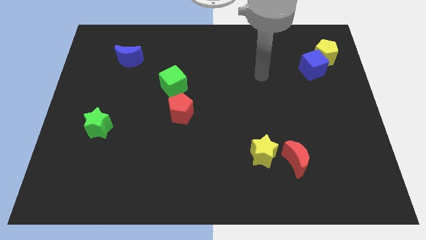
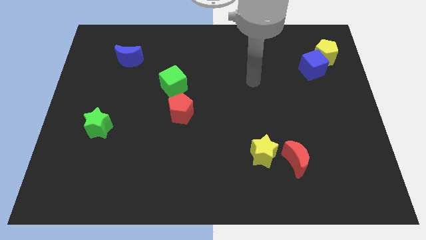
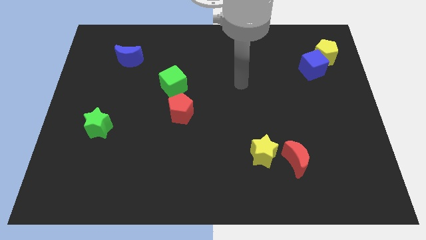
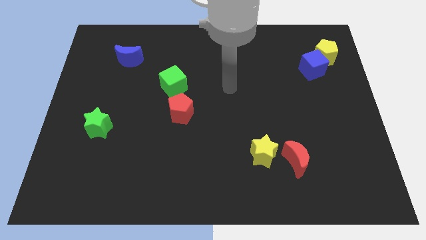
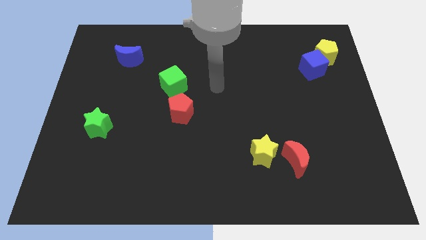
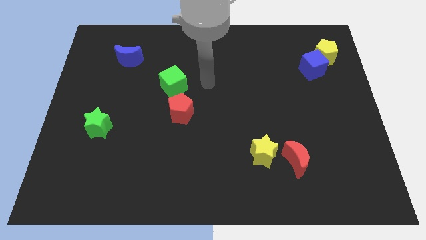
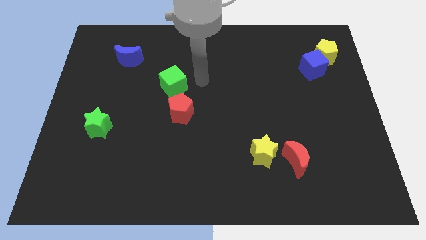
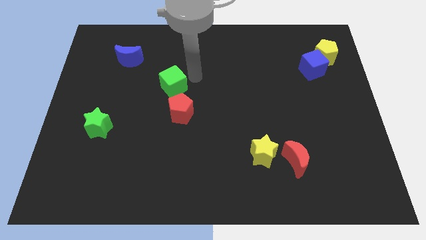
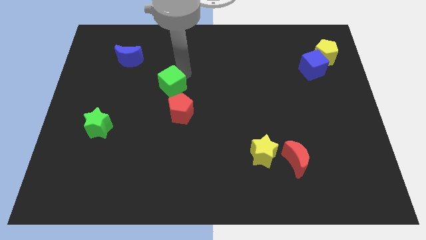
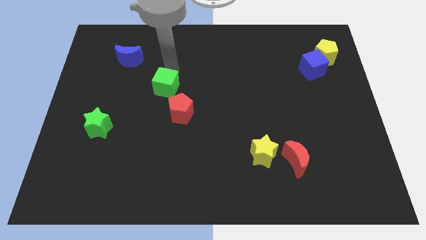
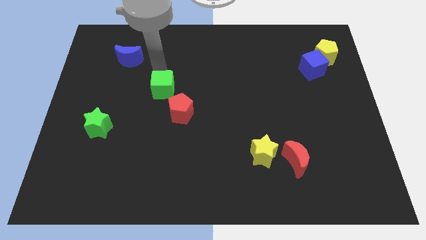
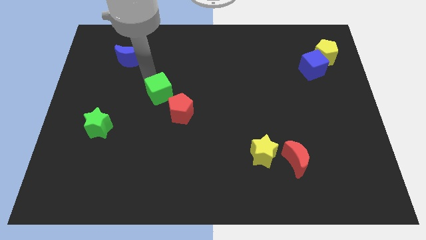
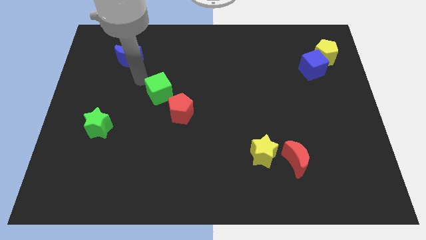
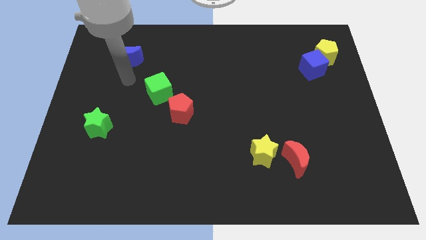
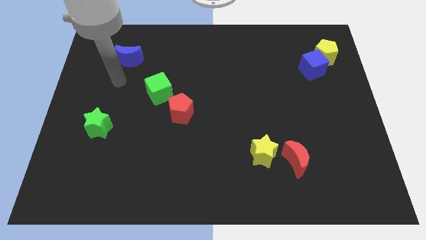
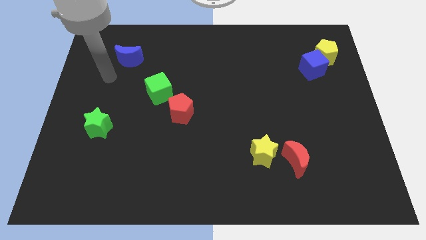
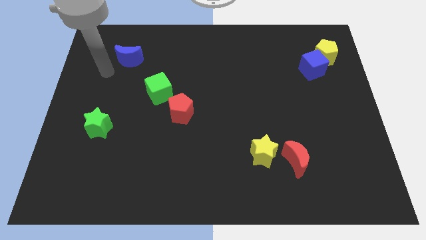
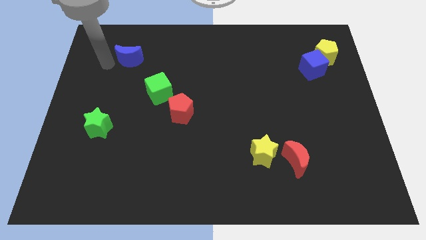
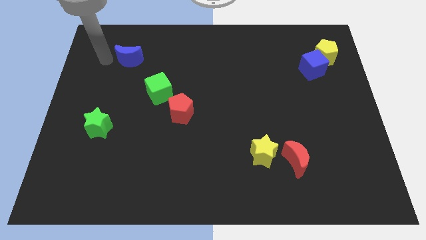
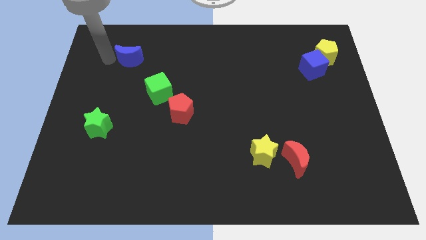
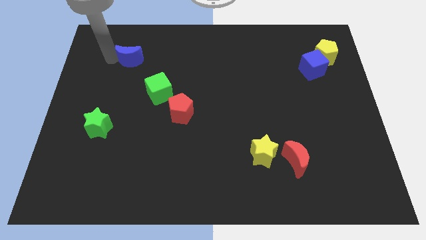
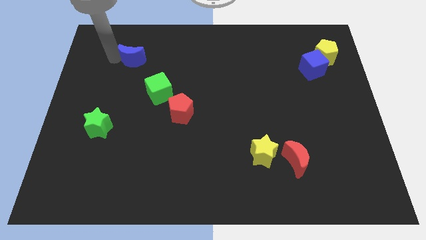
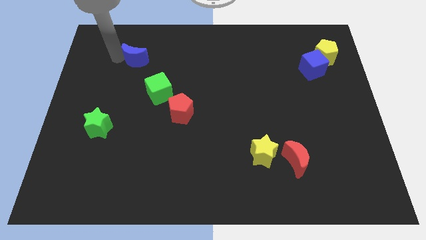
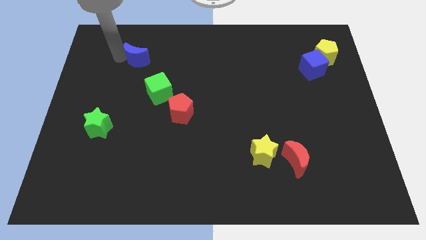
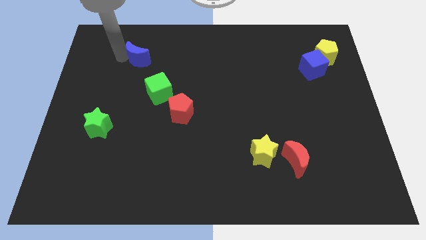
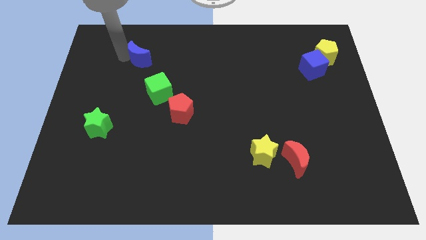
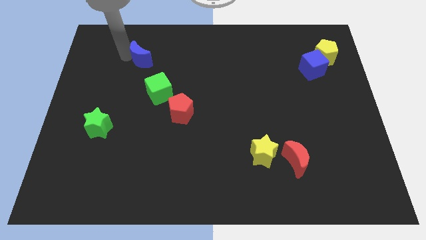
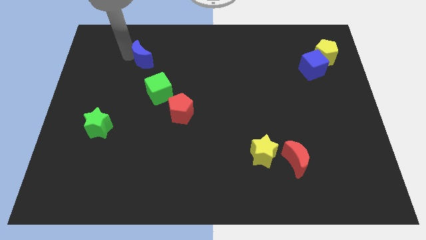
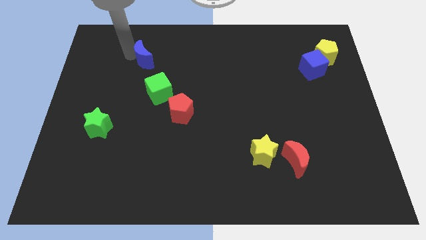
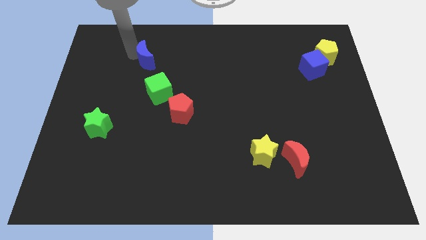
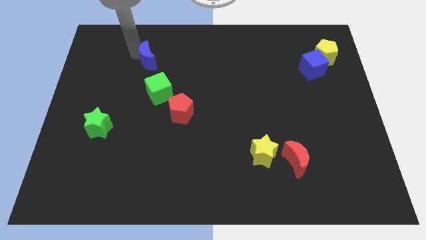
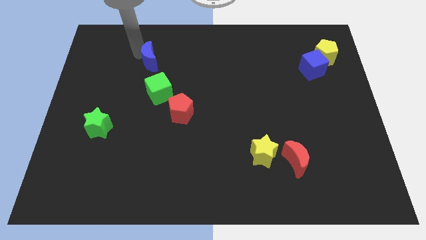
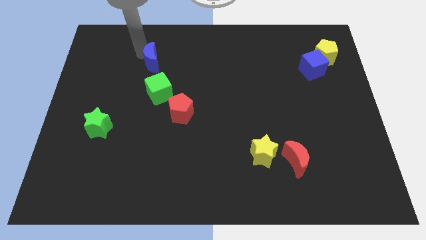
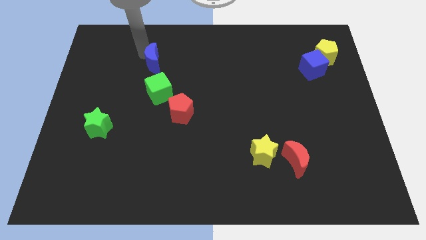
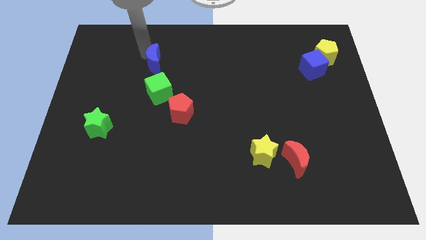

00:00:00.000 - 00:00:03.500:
slightly slide the blue moon right

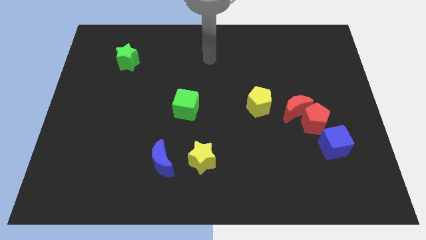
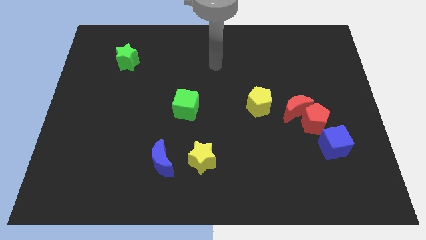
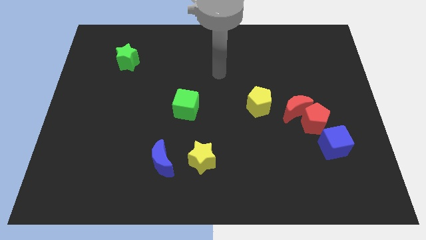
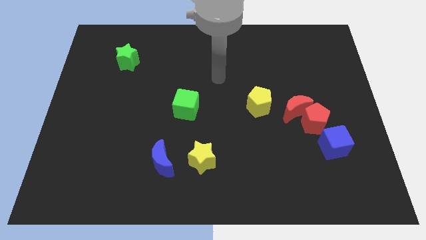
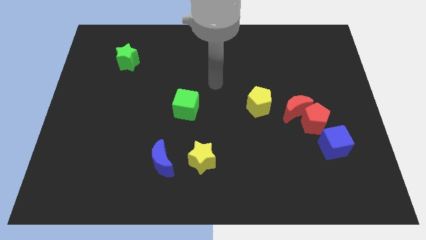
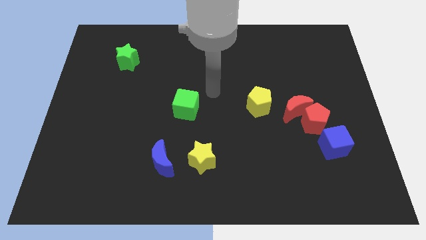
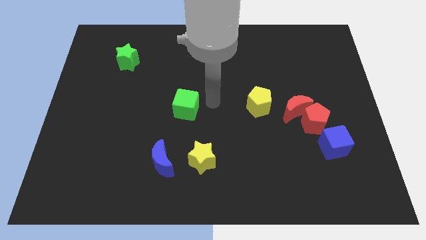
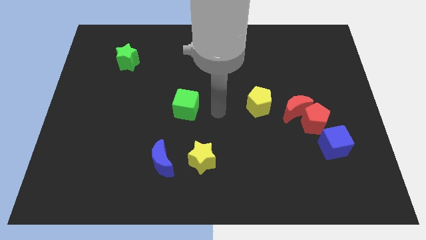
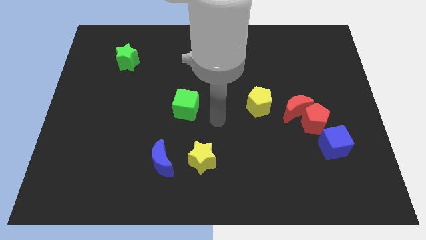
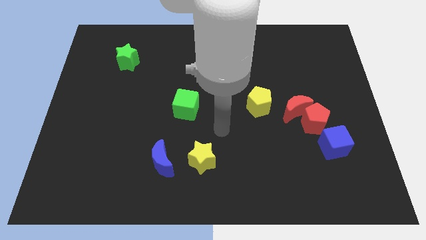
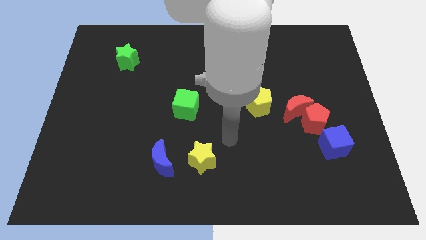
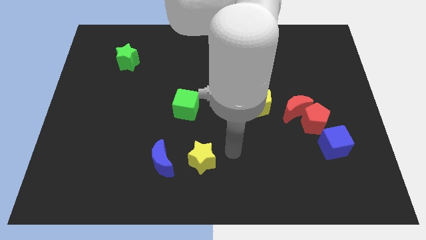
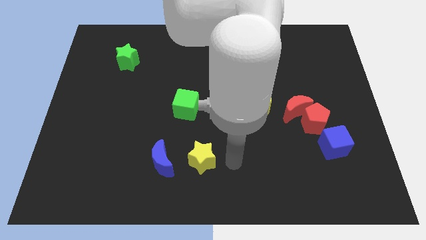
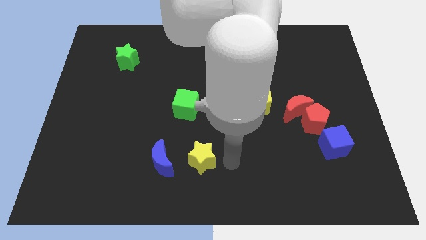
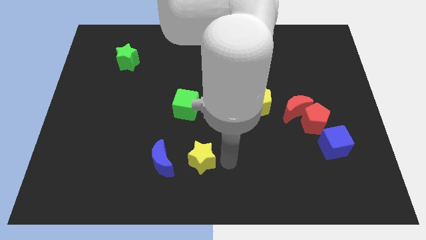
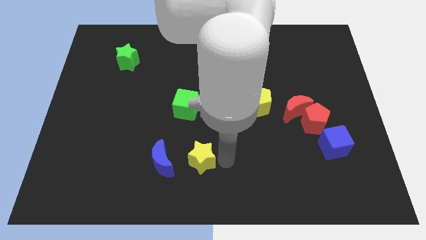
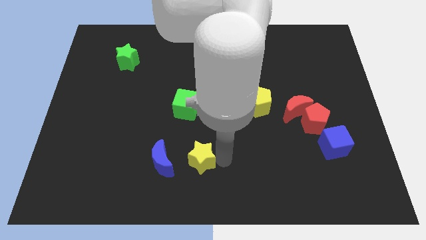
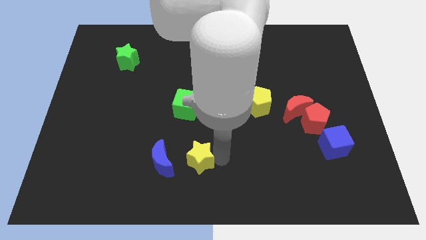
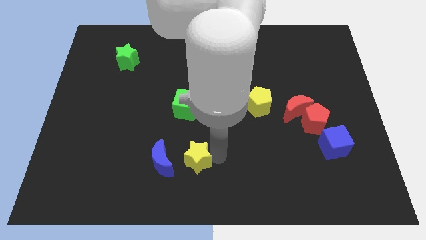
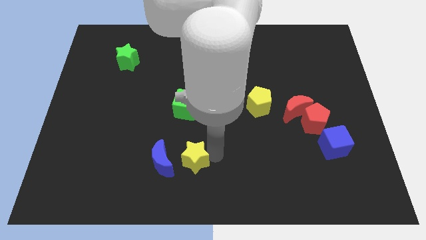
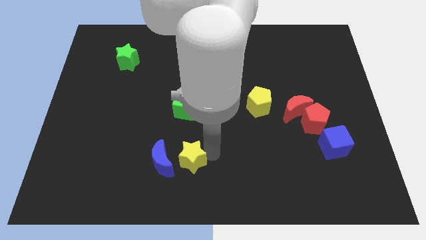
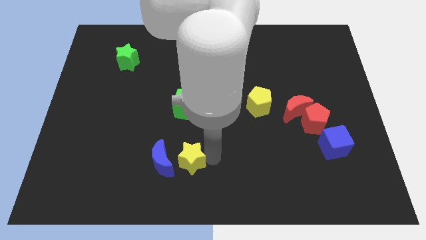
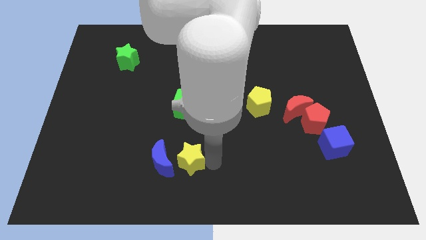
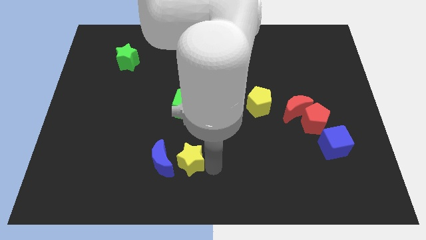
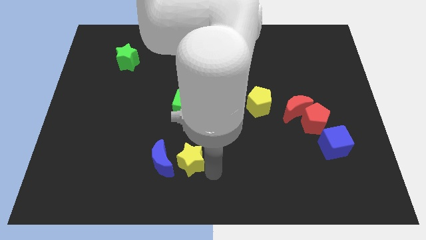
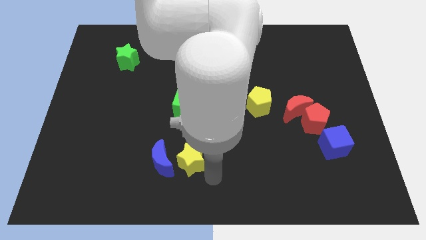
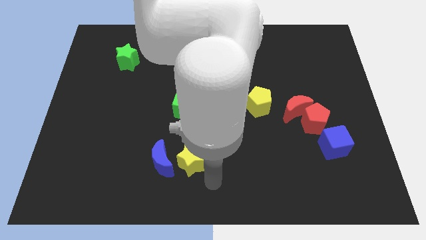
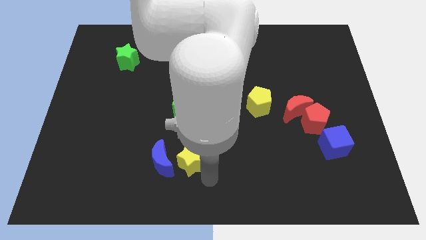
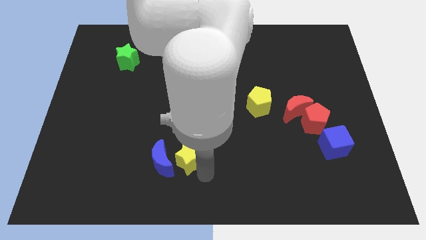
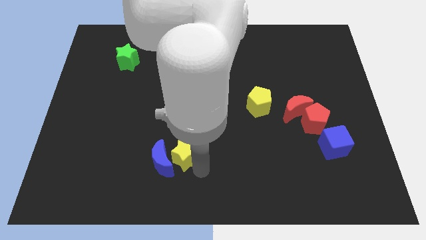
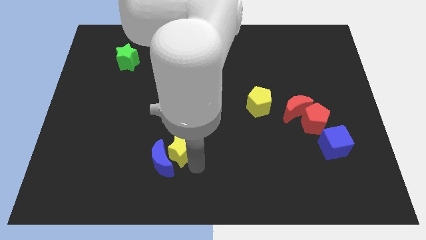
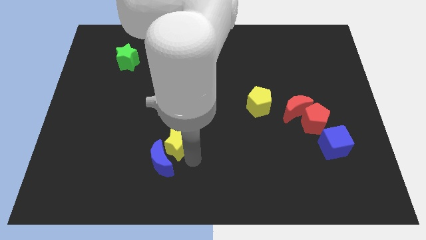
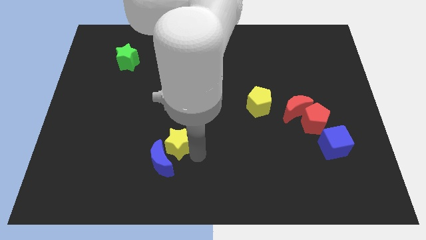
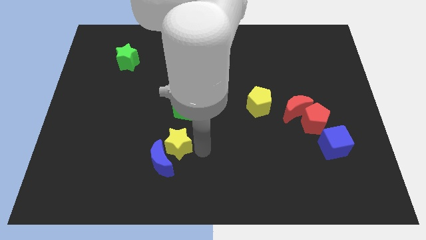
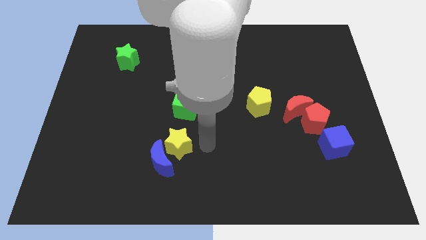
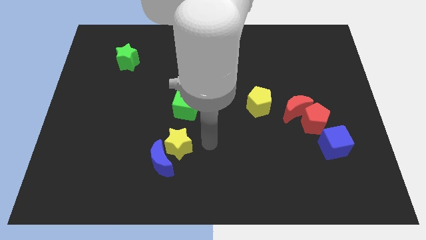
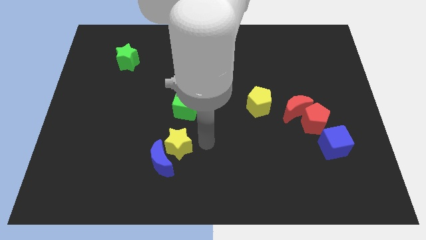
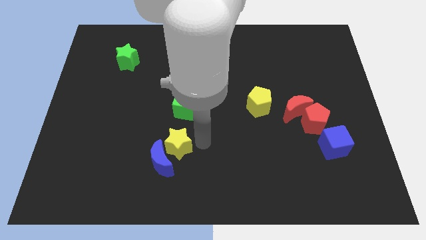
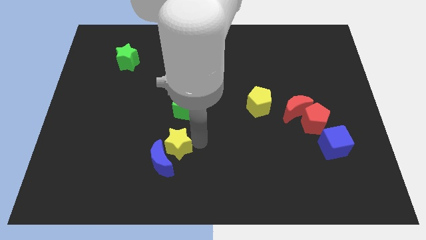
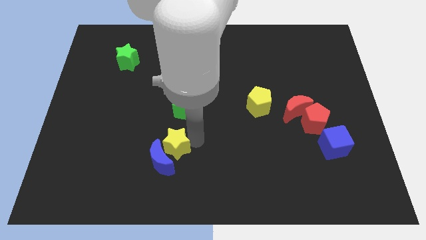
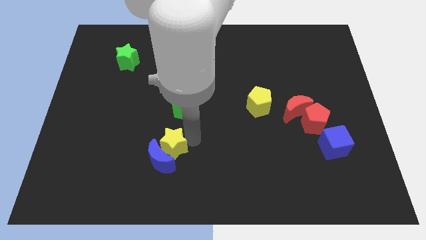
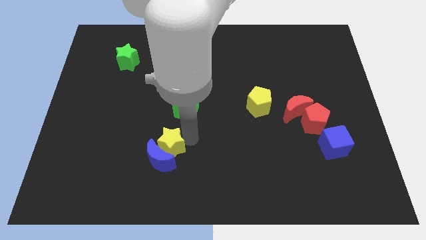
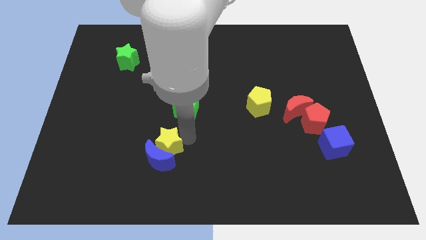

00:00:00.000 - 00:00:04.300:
slide the yellow star a little to the left

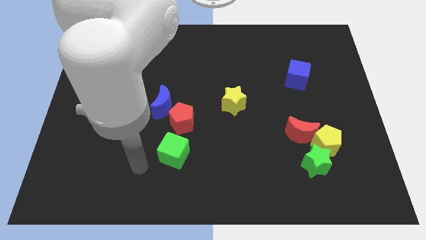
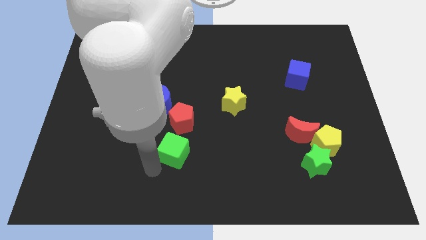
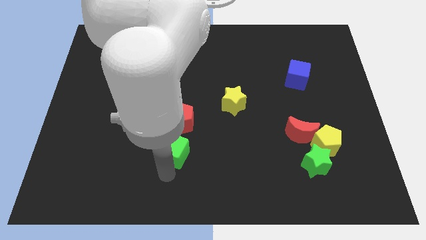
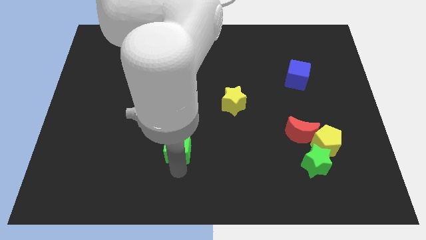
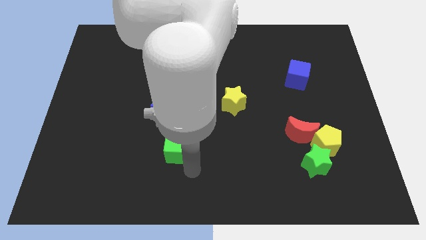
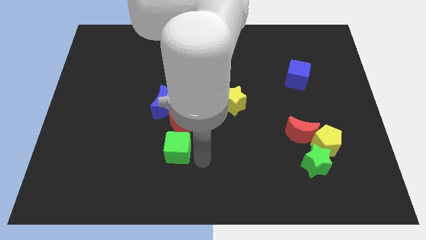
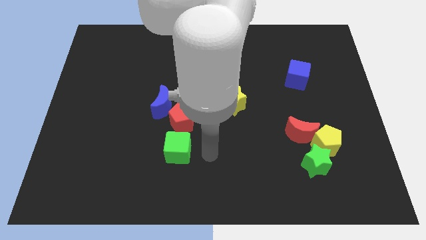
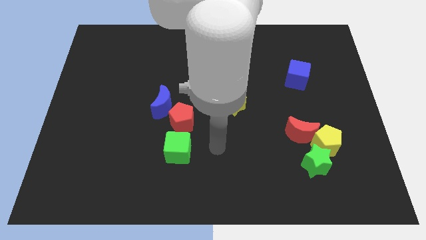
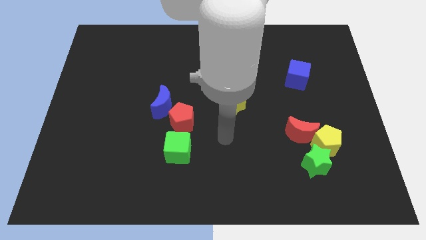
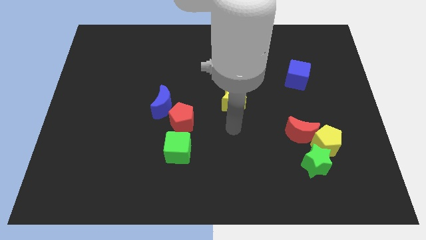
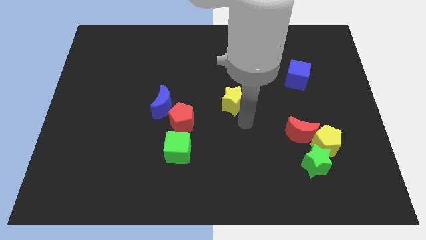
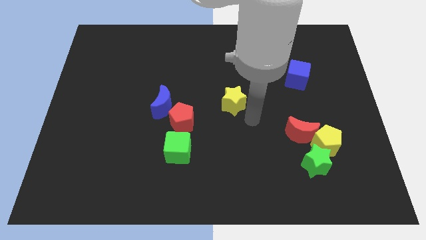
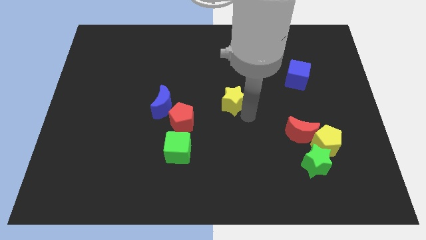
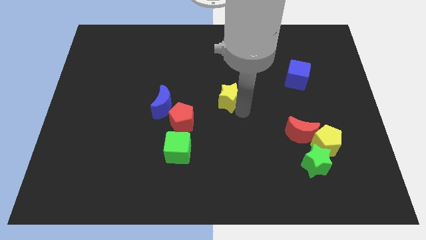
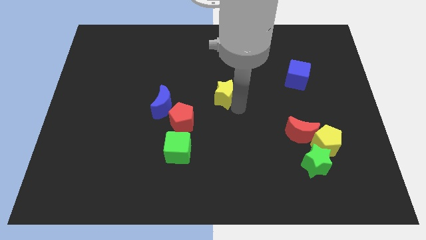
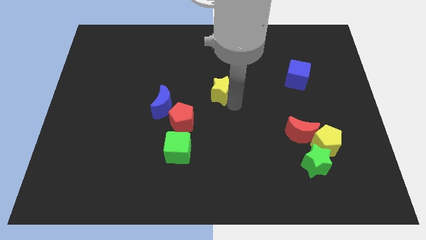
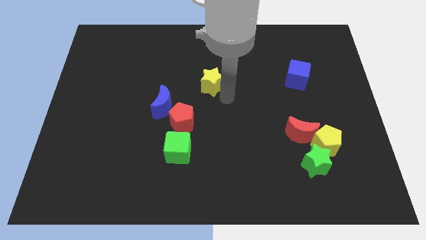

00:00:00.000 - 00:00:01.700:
slightly push the yellow star up and to the left diagonally
